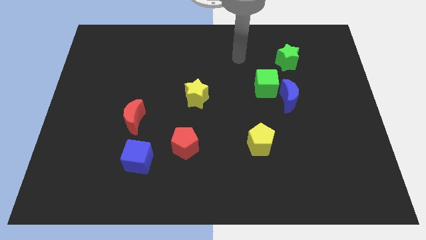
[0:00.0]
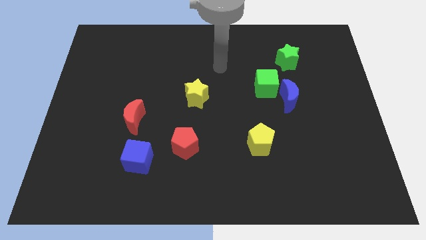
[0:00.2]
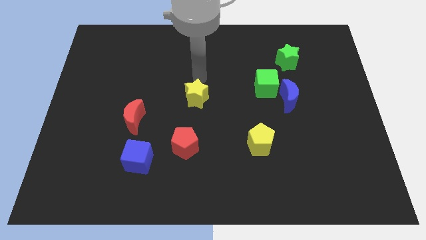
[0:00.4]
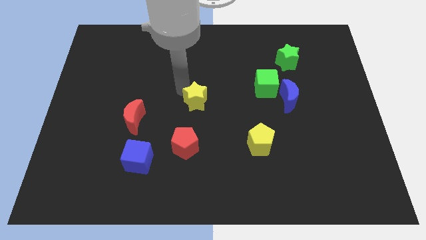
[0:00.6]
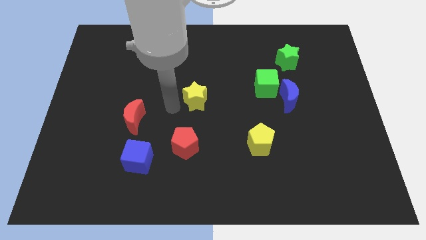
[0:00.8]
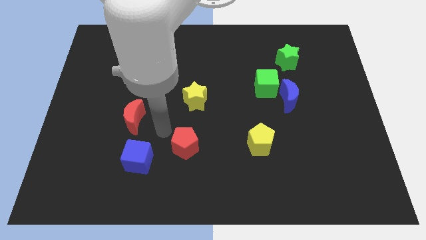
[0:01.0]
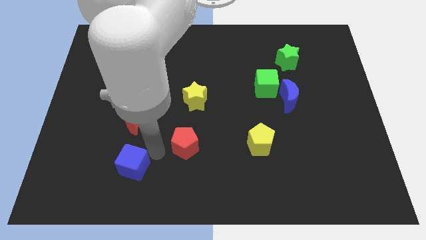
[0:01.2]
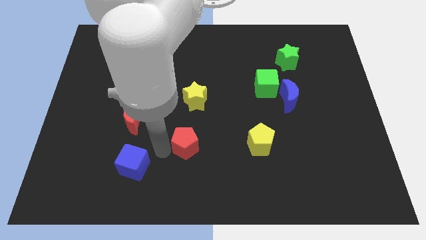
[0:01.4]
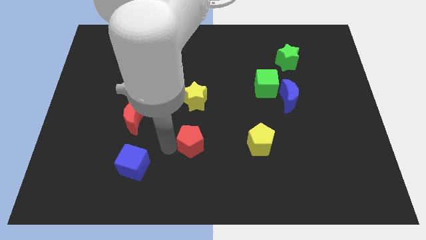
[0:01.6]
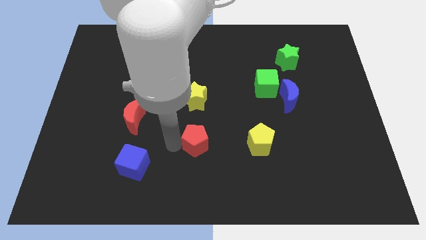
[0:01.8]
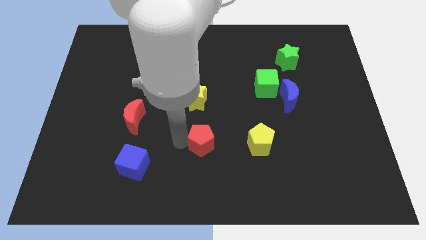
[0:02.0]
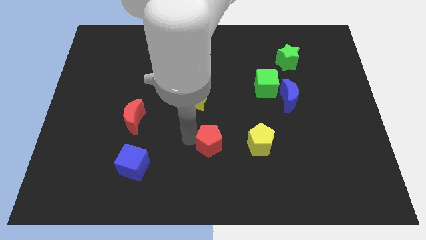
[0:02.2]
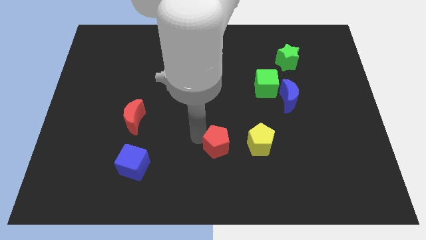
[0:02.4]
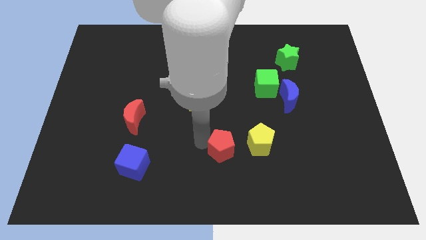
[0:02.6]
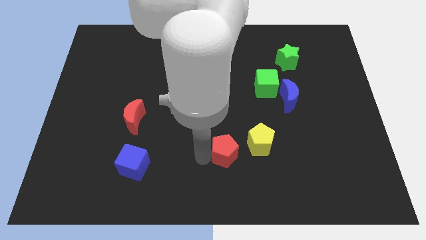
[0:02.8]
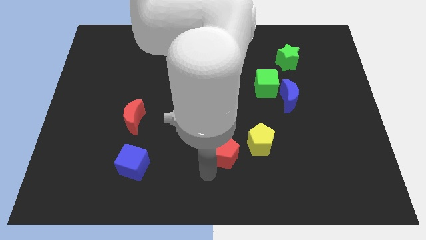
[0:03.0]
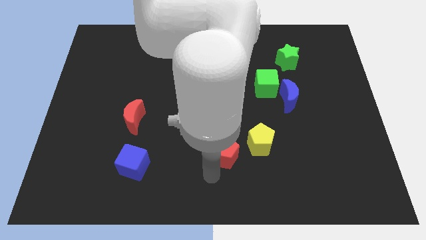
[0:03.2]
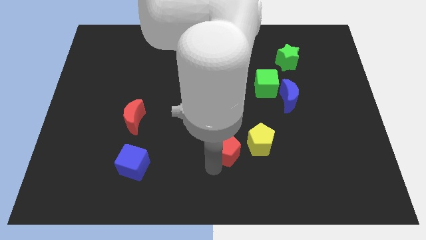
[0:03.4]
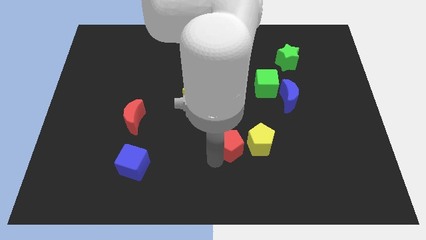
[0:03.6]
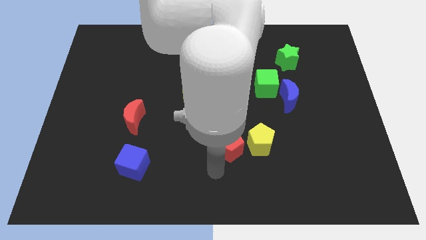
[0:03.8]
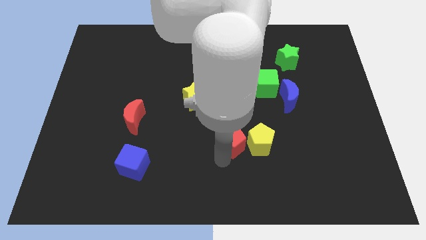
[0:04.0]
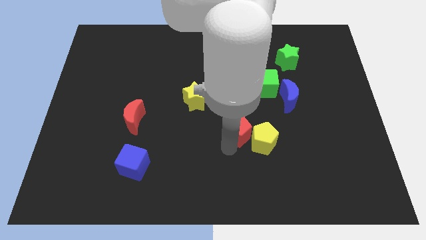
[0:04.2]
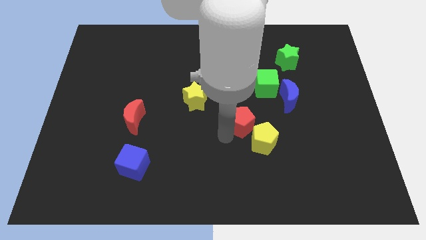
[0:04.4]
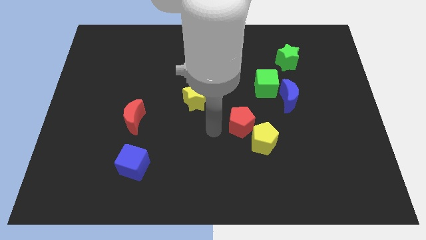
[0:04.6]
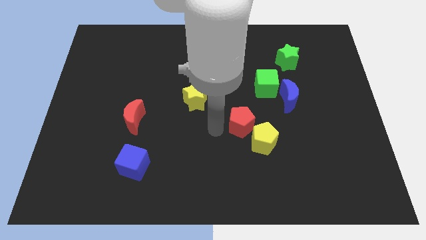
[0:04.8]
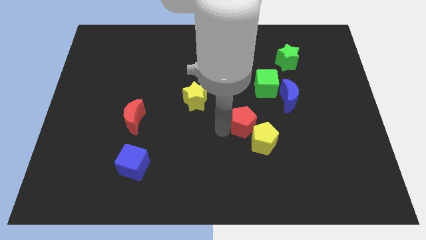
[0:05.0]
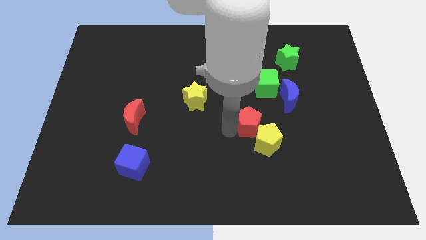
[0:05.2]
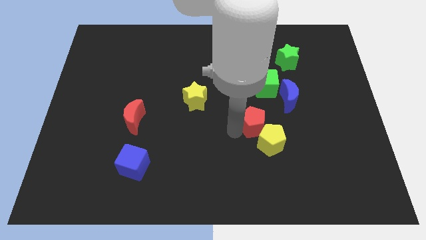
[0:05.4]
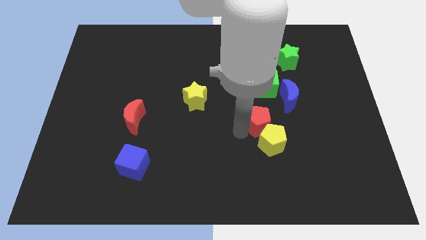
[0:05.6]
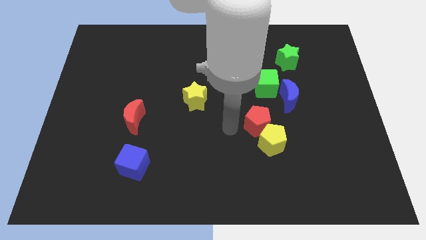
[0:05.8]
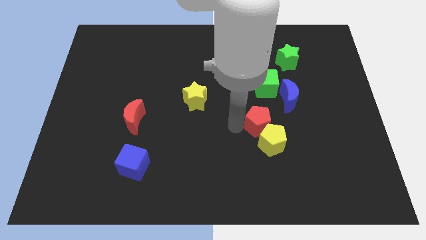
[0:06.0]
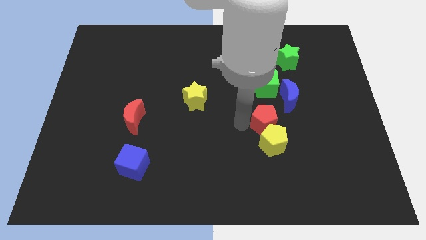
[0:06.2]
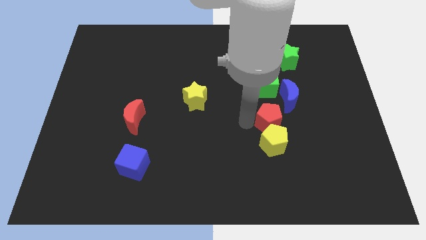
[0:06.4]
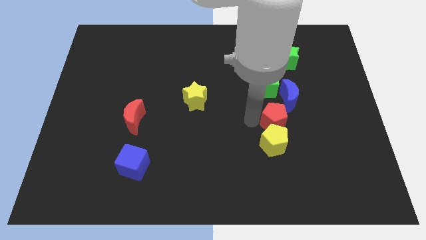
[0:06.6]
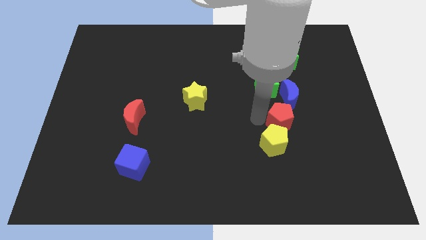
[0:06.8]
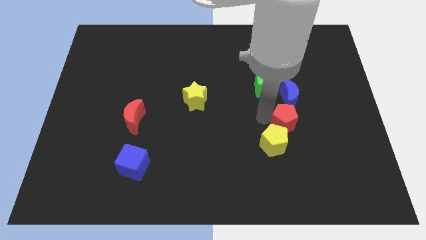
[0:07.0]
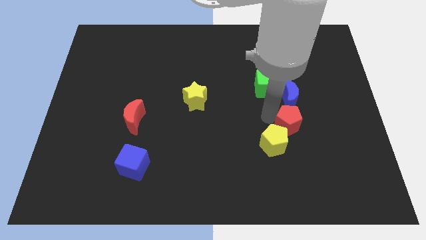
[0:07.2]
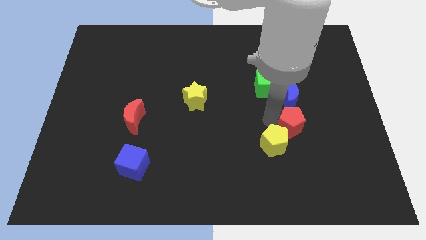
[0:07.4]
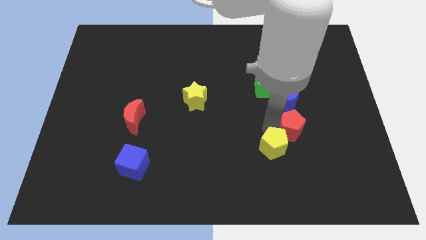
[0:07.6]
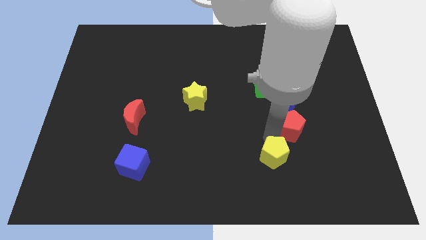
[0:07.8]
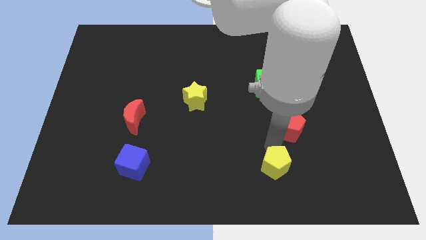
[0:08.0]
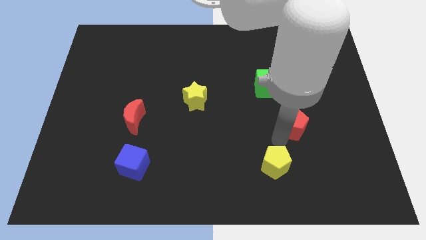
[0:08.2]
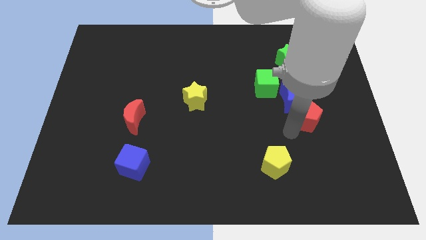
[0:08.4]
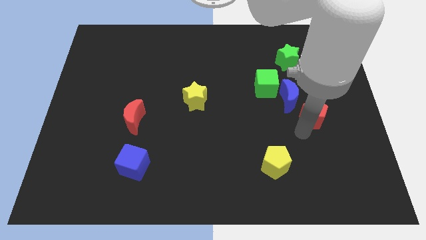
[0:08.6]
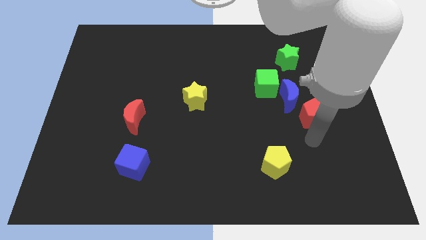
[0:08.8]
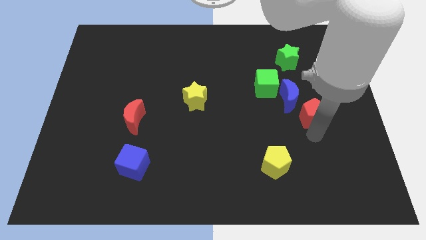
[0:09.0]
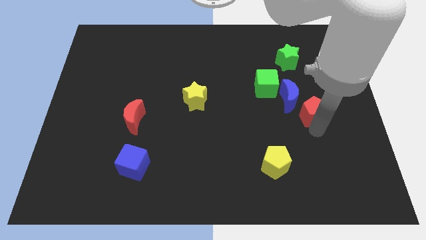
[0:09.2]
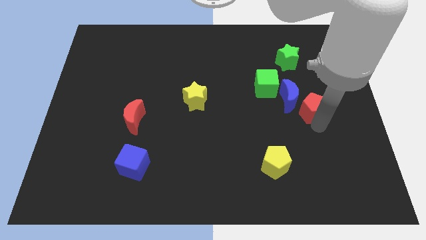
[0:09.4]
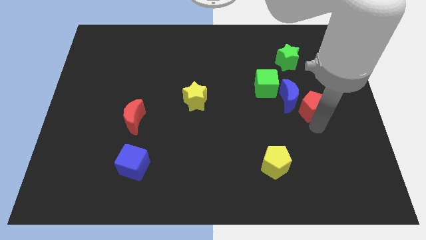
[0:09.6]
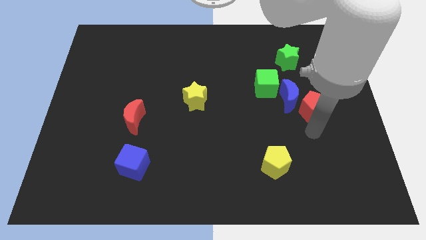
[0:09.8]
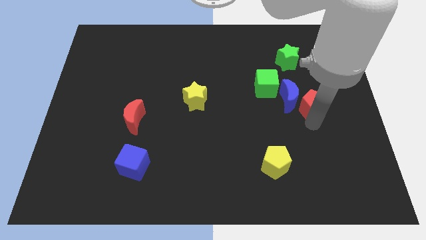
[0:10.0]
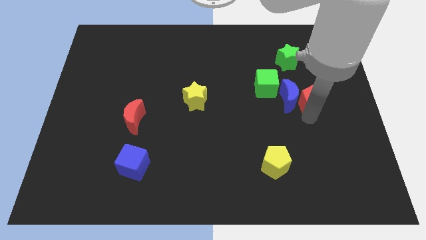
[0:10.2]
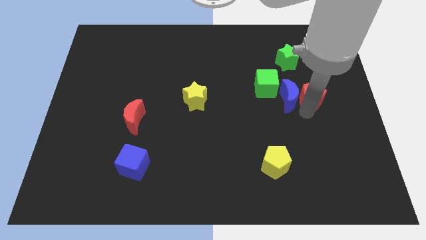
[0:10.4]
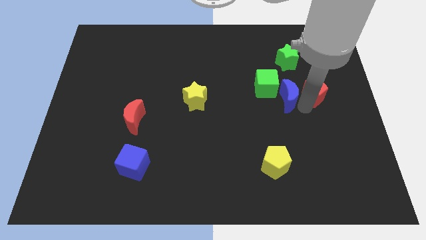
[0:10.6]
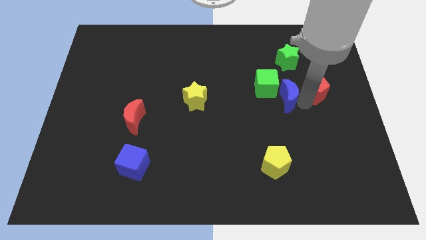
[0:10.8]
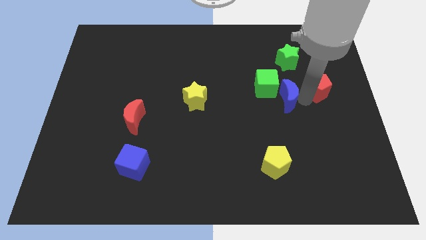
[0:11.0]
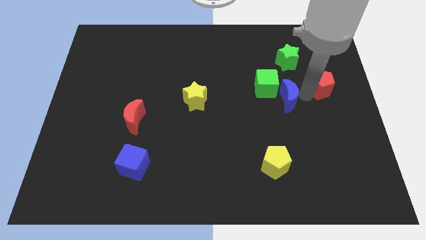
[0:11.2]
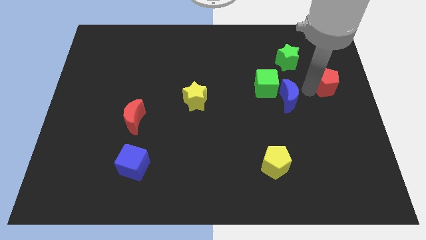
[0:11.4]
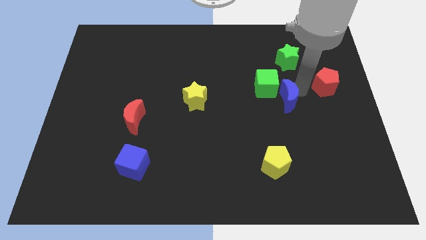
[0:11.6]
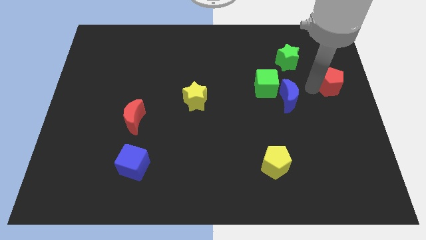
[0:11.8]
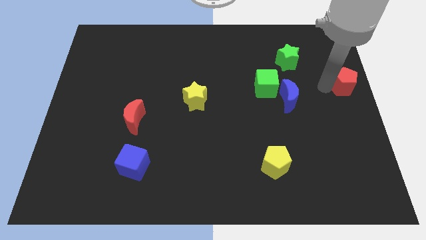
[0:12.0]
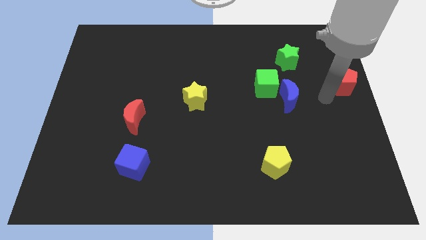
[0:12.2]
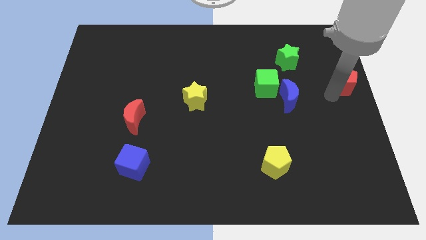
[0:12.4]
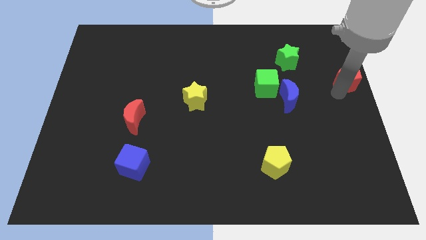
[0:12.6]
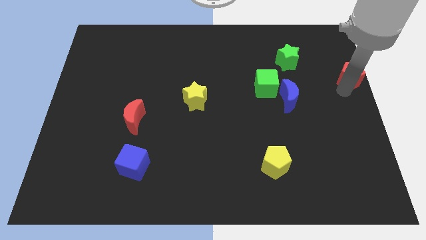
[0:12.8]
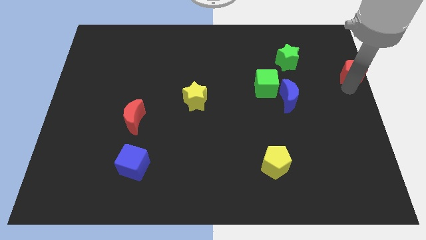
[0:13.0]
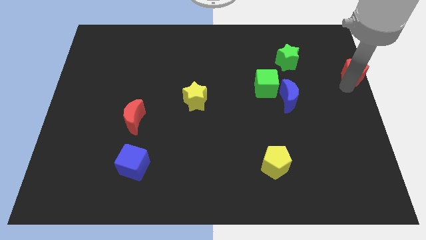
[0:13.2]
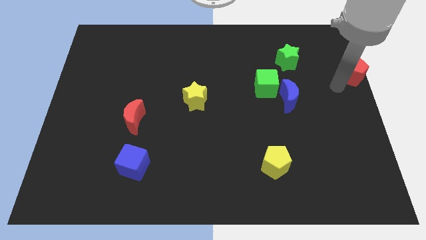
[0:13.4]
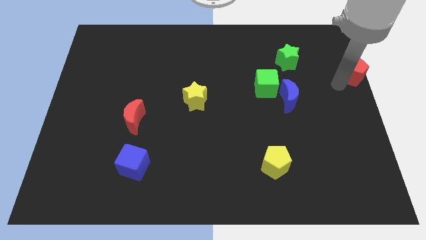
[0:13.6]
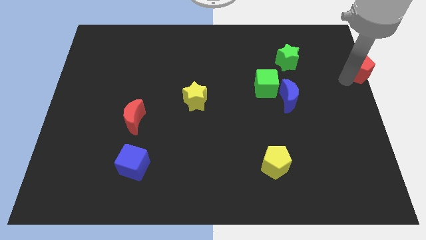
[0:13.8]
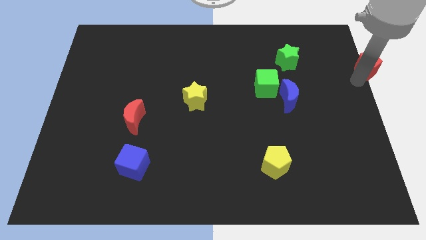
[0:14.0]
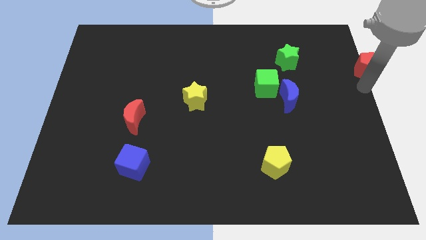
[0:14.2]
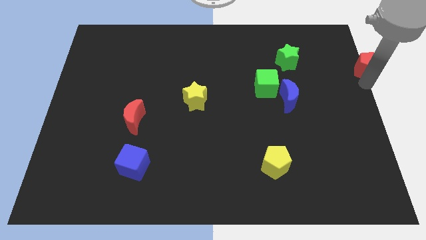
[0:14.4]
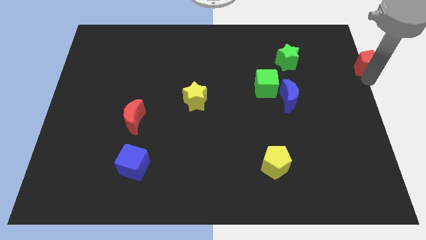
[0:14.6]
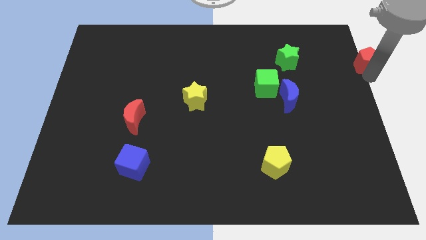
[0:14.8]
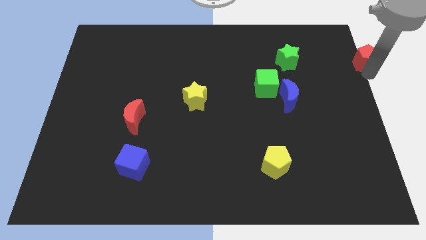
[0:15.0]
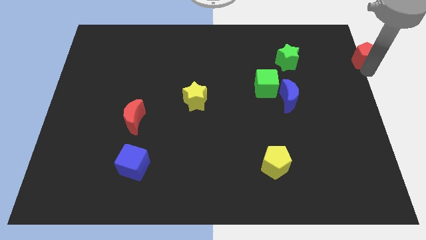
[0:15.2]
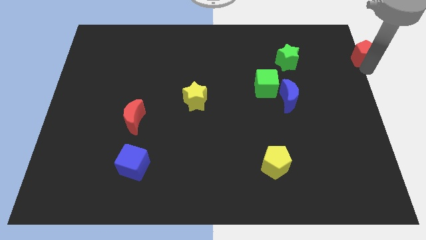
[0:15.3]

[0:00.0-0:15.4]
put the red pentagon to the top right
